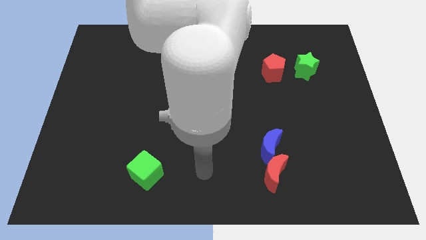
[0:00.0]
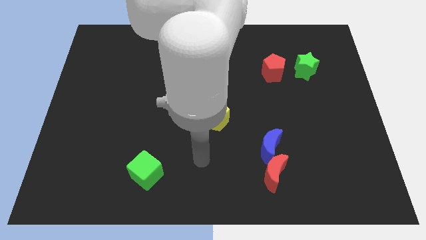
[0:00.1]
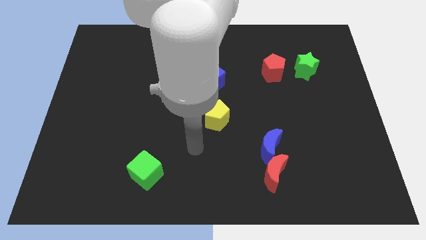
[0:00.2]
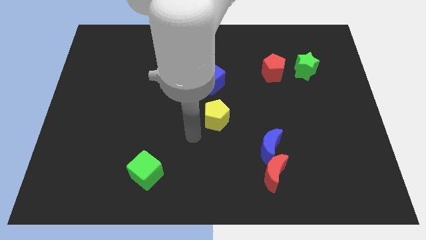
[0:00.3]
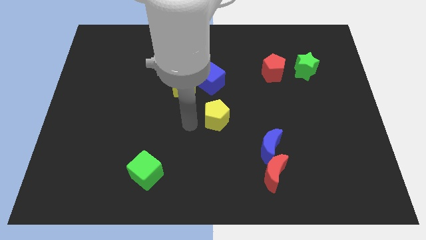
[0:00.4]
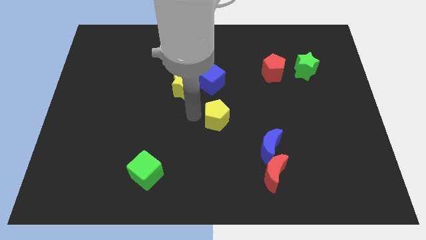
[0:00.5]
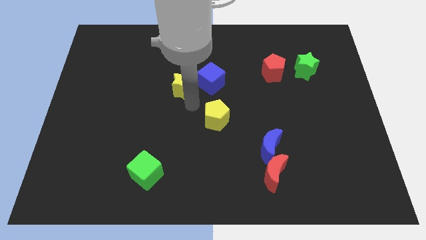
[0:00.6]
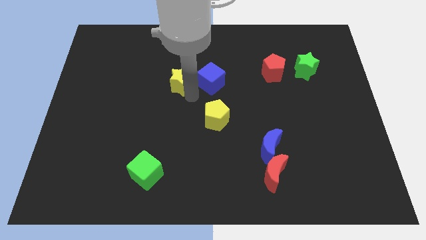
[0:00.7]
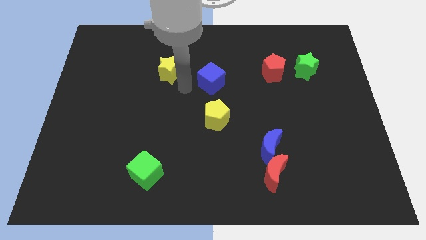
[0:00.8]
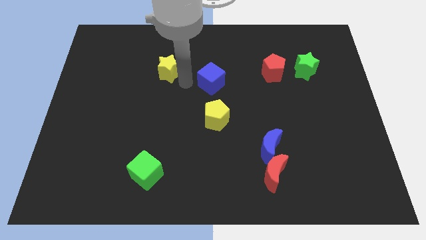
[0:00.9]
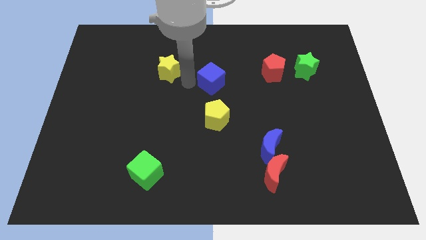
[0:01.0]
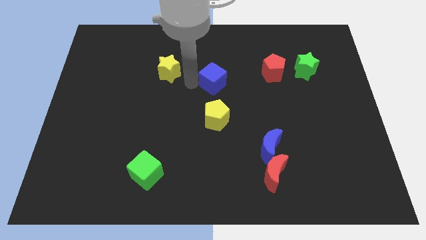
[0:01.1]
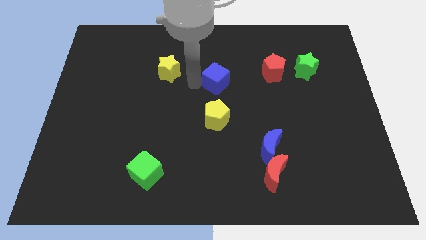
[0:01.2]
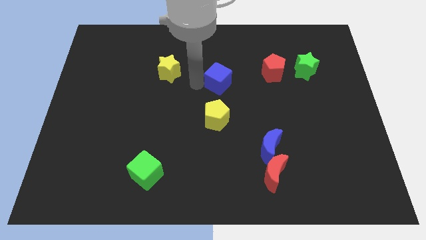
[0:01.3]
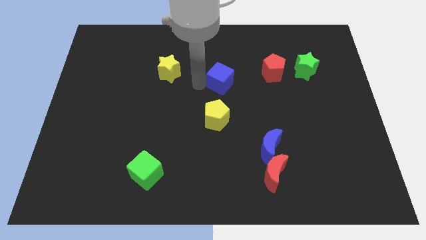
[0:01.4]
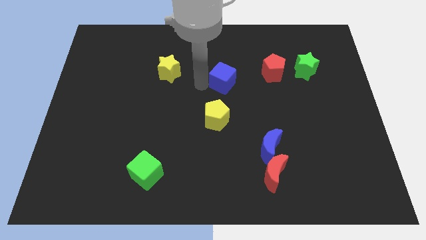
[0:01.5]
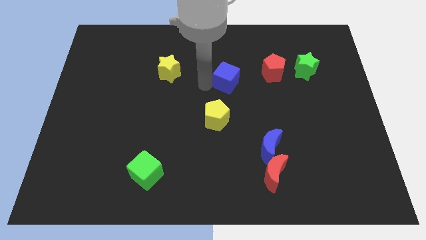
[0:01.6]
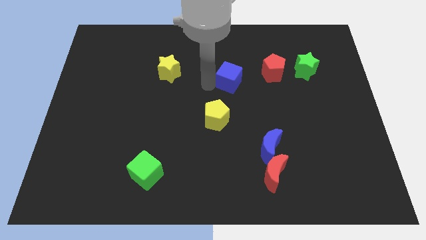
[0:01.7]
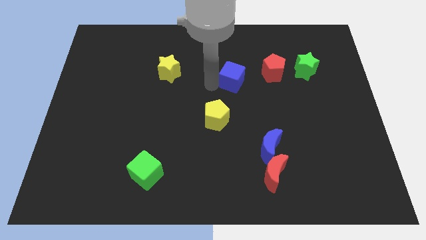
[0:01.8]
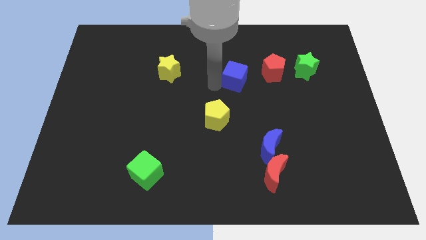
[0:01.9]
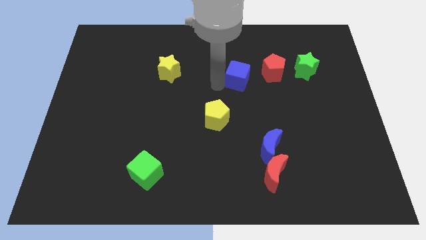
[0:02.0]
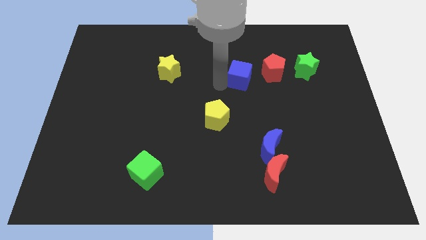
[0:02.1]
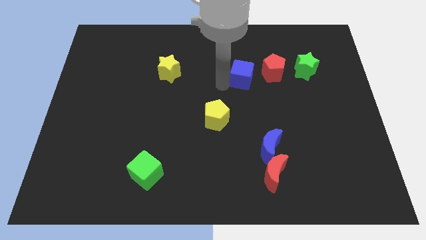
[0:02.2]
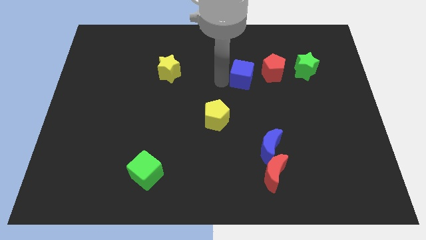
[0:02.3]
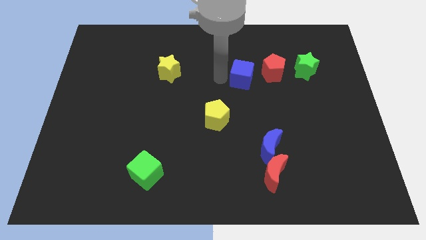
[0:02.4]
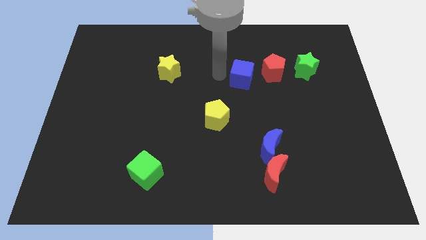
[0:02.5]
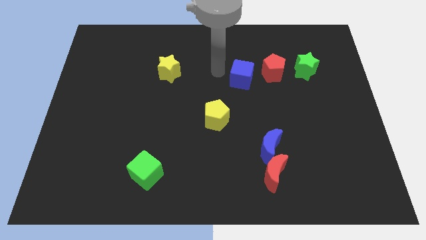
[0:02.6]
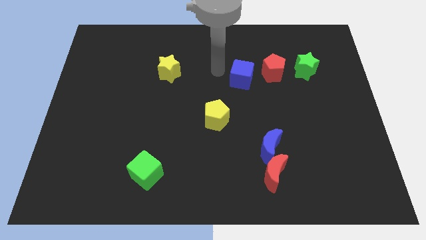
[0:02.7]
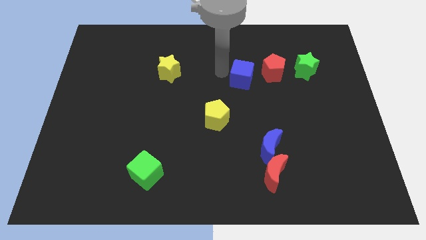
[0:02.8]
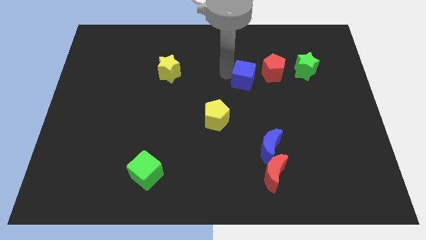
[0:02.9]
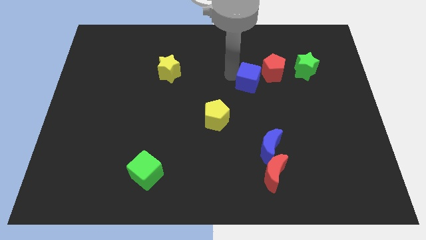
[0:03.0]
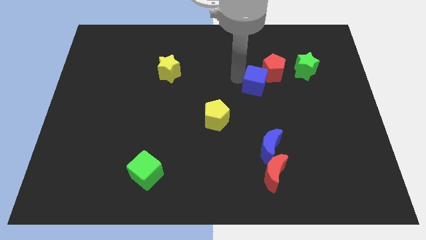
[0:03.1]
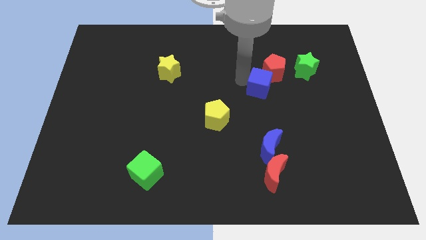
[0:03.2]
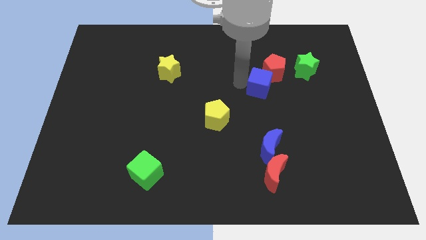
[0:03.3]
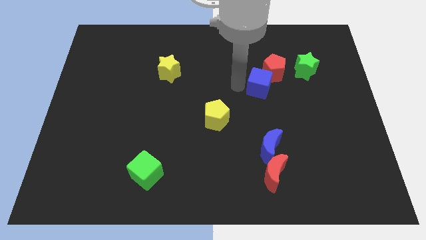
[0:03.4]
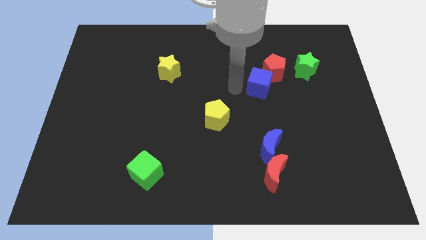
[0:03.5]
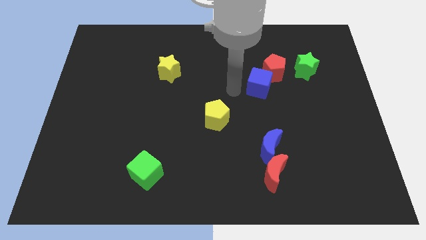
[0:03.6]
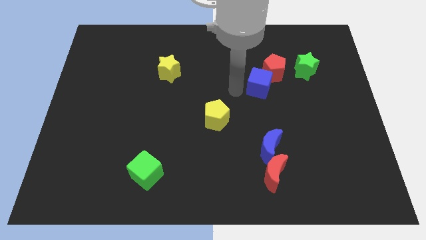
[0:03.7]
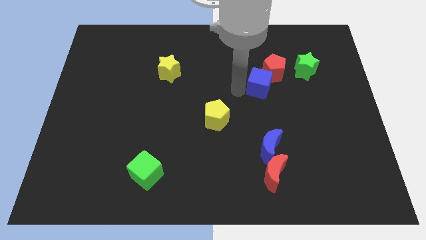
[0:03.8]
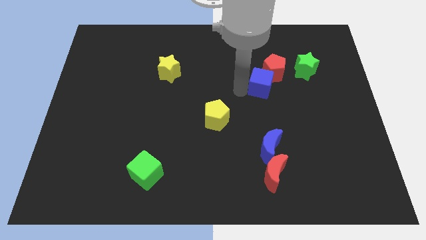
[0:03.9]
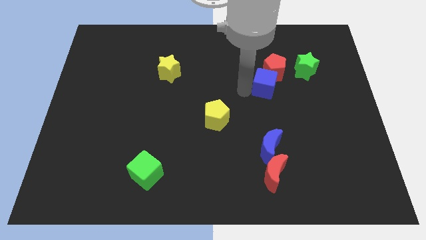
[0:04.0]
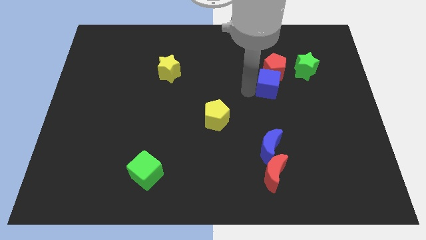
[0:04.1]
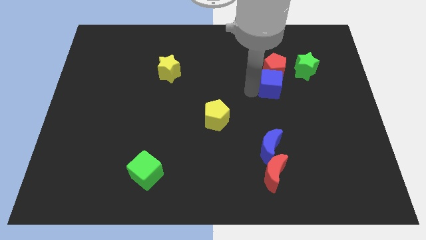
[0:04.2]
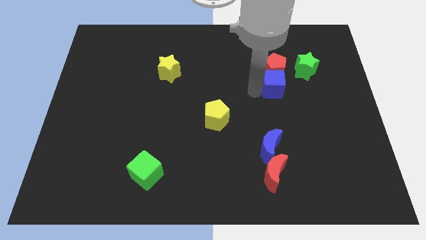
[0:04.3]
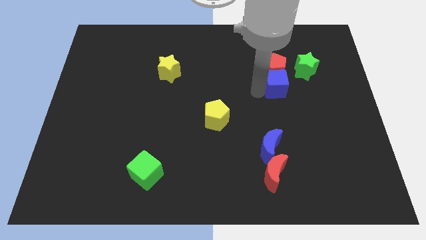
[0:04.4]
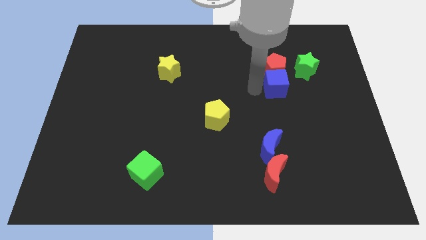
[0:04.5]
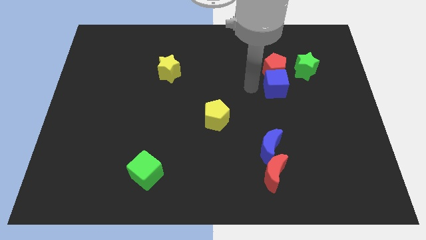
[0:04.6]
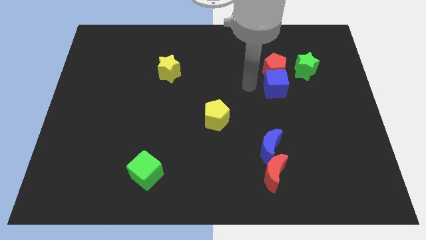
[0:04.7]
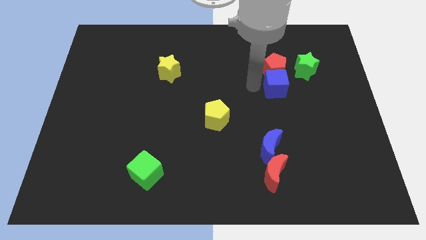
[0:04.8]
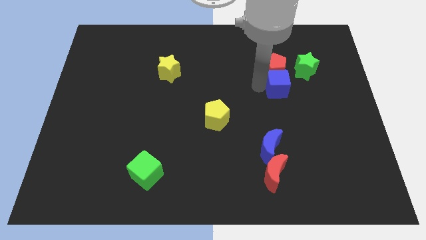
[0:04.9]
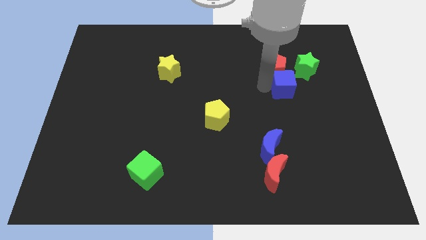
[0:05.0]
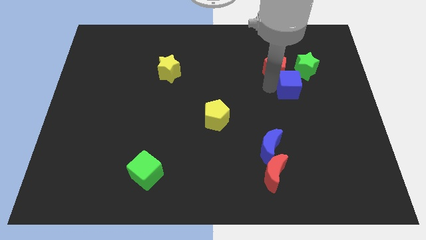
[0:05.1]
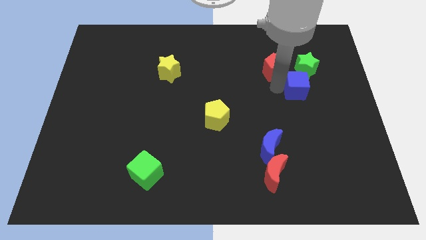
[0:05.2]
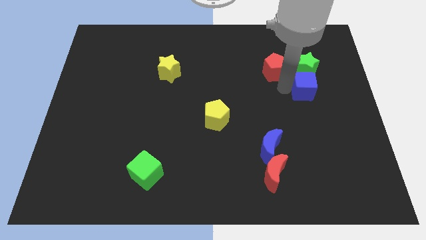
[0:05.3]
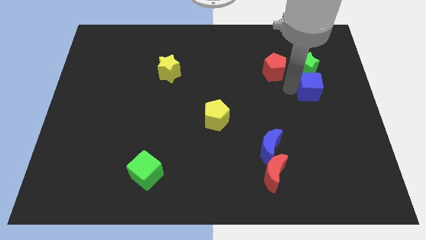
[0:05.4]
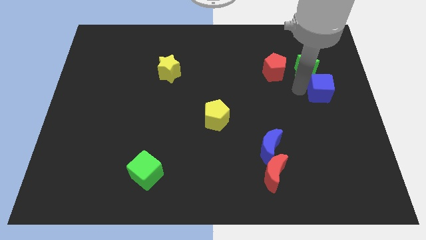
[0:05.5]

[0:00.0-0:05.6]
put the blue cube to the center right

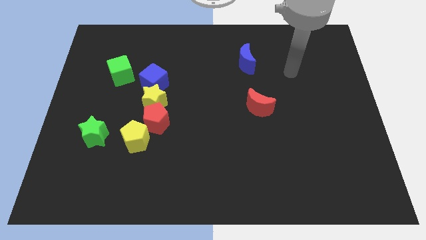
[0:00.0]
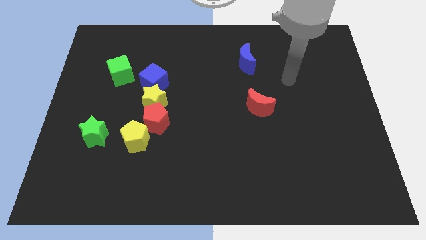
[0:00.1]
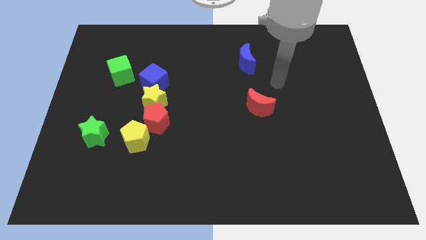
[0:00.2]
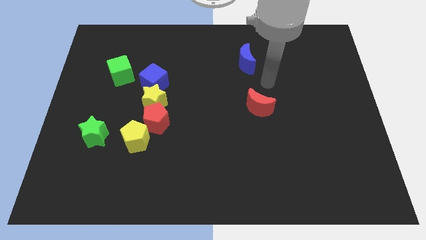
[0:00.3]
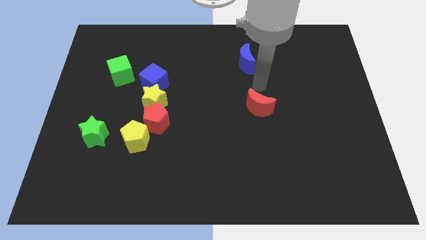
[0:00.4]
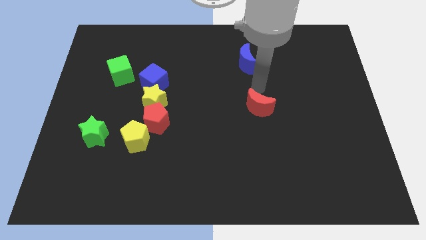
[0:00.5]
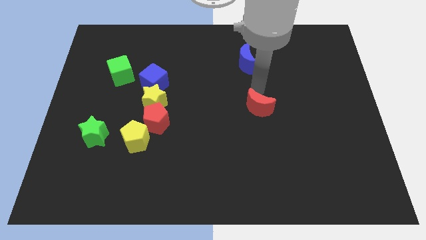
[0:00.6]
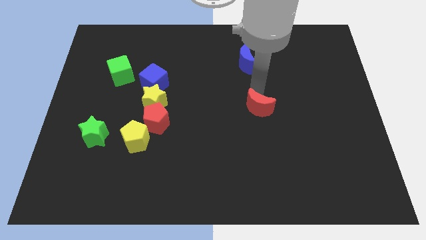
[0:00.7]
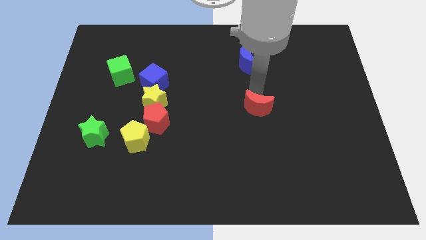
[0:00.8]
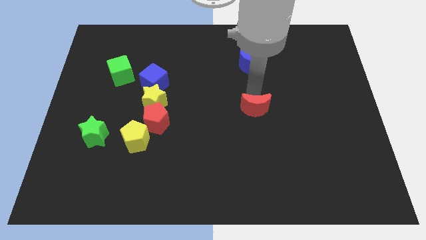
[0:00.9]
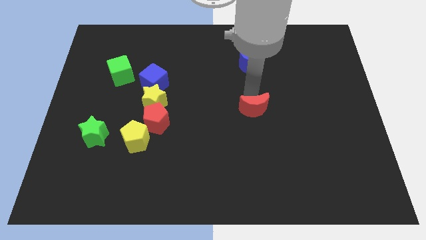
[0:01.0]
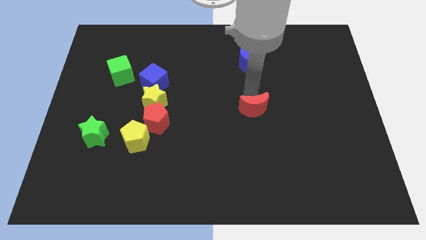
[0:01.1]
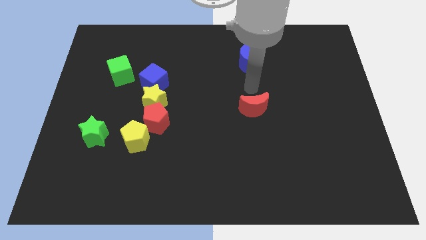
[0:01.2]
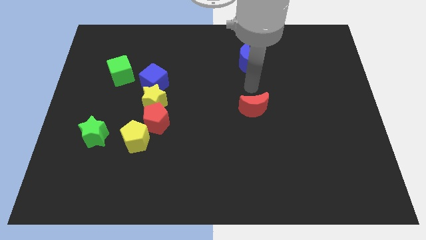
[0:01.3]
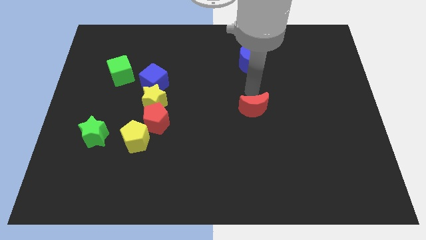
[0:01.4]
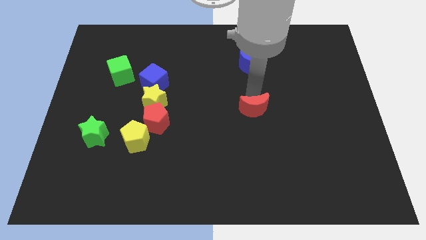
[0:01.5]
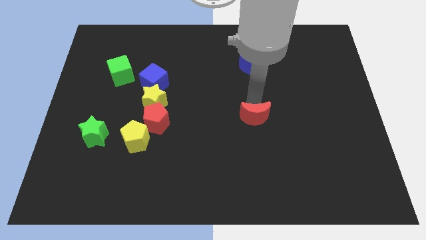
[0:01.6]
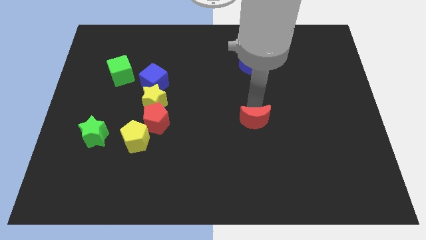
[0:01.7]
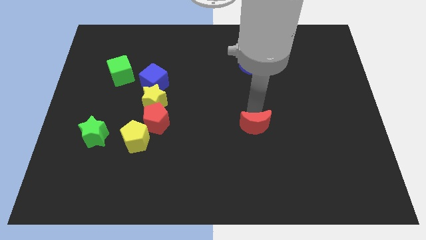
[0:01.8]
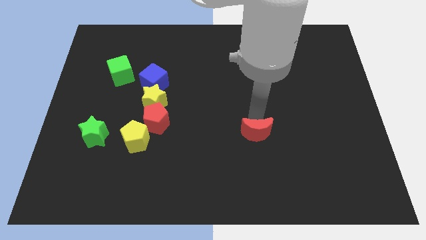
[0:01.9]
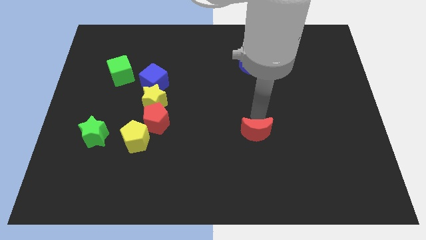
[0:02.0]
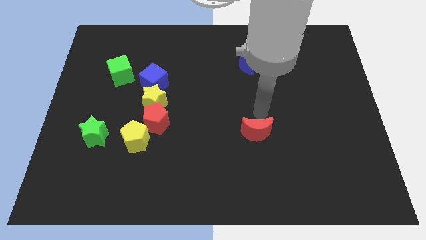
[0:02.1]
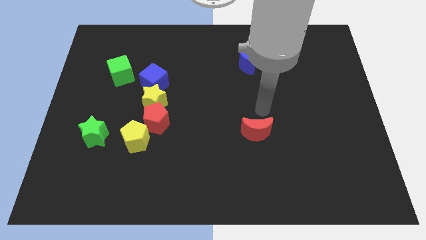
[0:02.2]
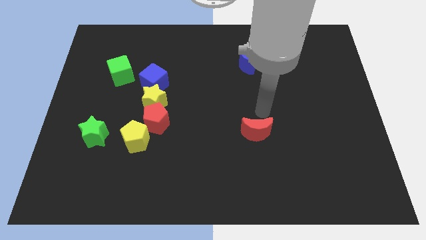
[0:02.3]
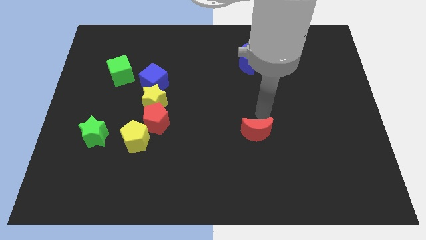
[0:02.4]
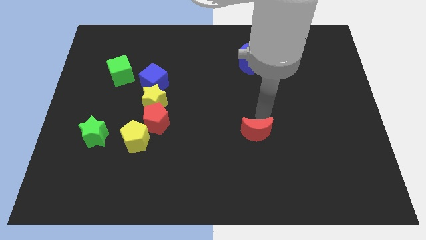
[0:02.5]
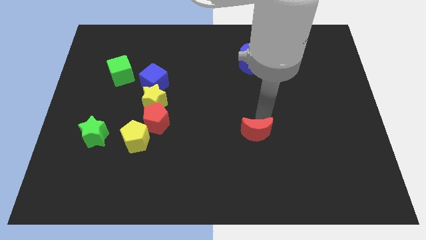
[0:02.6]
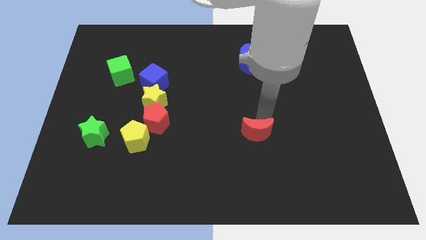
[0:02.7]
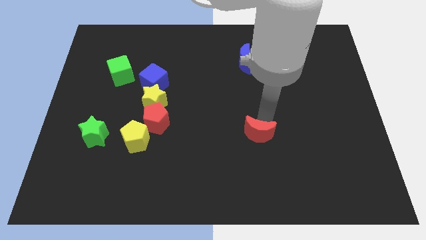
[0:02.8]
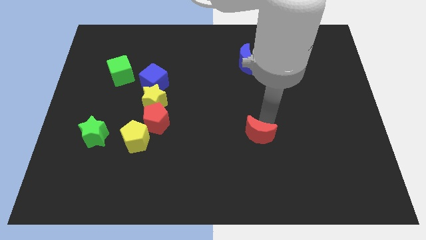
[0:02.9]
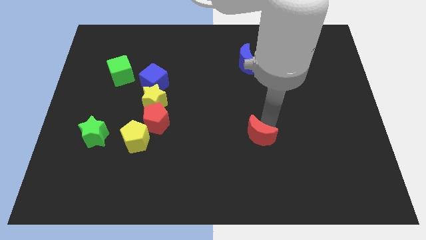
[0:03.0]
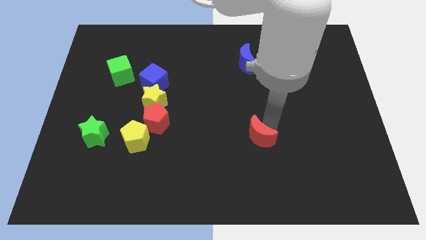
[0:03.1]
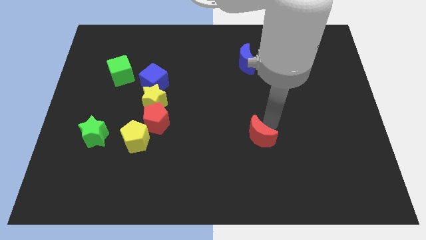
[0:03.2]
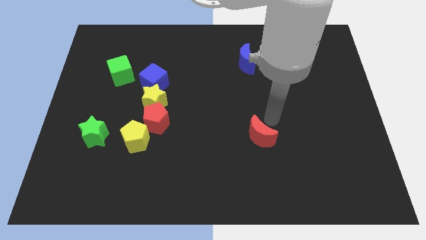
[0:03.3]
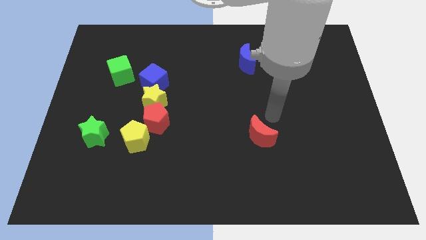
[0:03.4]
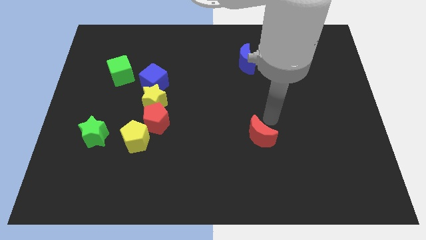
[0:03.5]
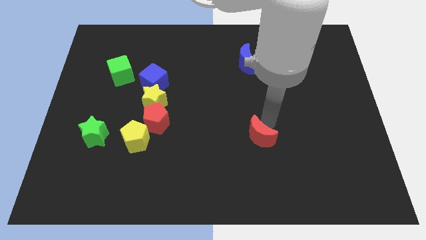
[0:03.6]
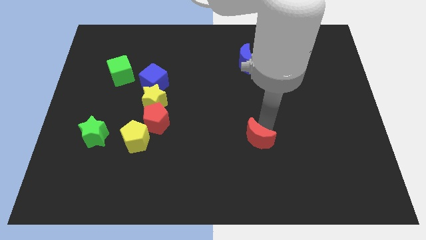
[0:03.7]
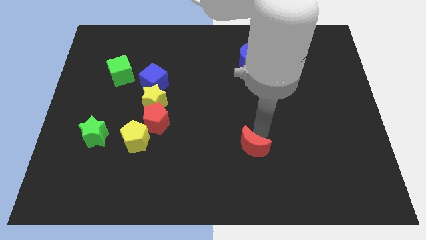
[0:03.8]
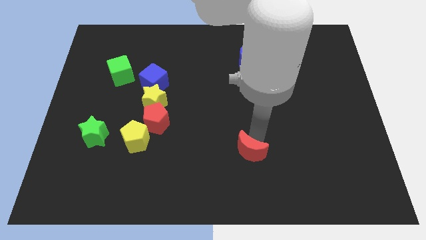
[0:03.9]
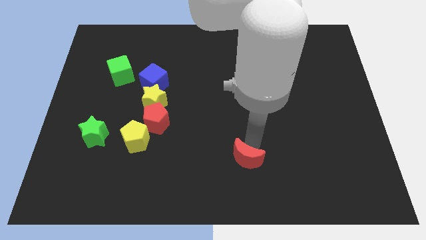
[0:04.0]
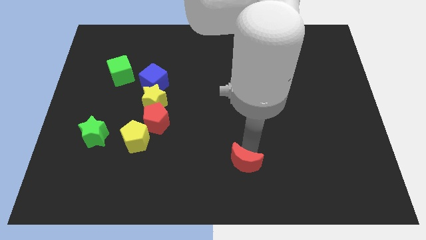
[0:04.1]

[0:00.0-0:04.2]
move the red moon to the bottom
